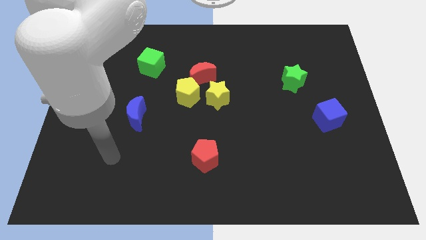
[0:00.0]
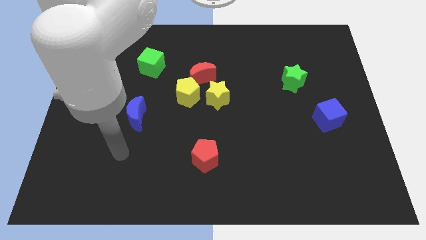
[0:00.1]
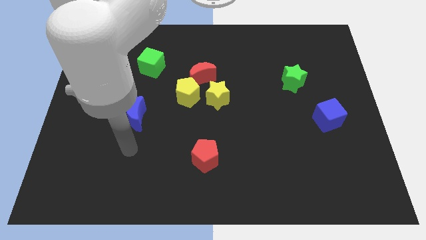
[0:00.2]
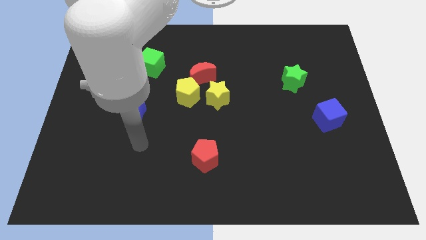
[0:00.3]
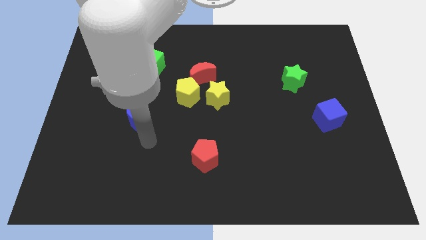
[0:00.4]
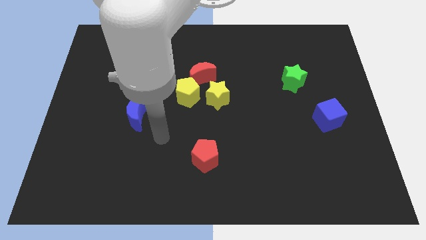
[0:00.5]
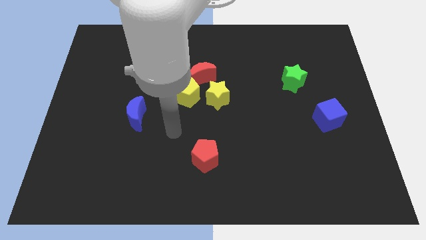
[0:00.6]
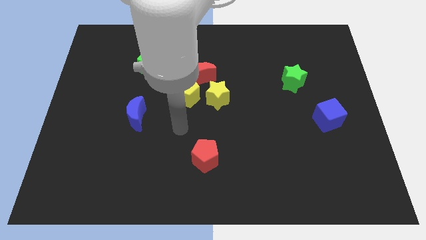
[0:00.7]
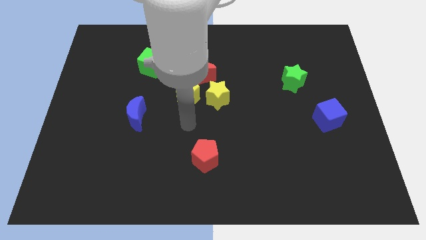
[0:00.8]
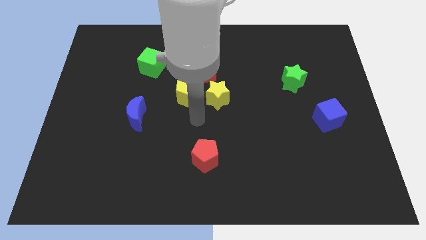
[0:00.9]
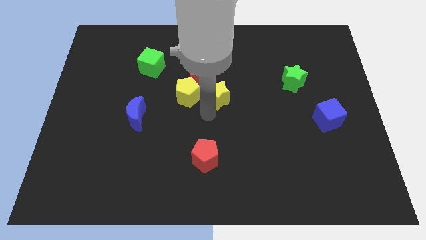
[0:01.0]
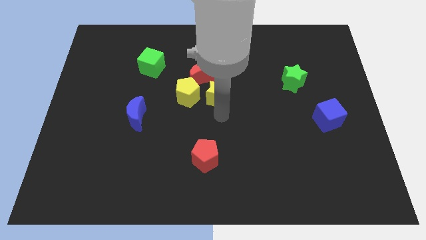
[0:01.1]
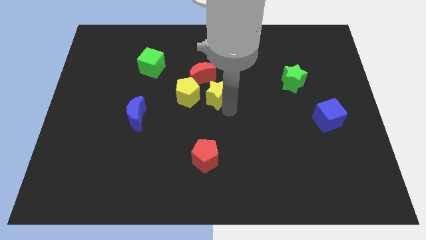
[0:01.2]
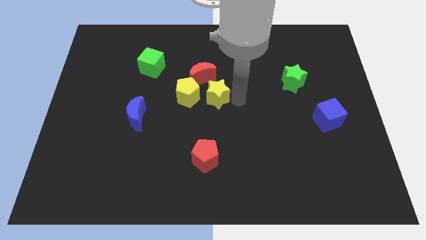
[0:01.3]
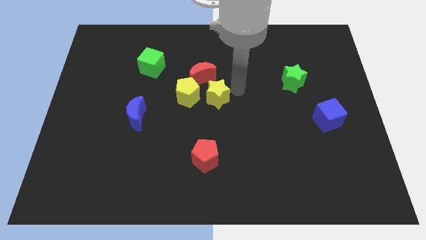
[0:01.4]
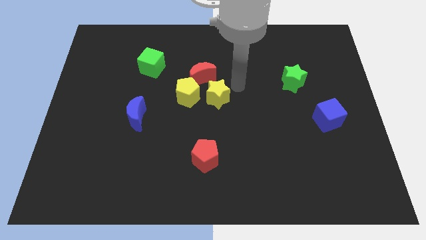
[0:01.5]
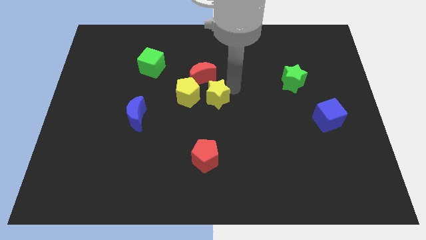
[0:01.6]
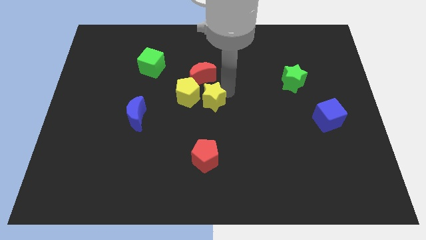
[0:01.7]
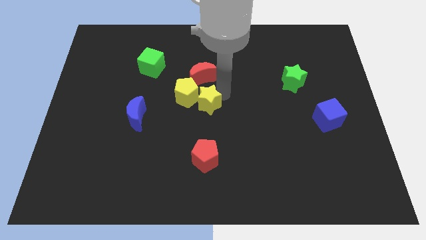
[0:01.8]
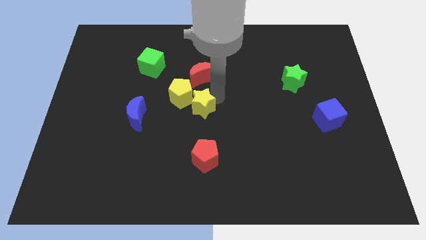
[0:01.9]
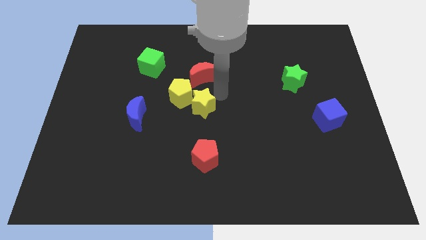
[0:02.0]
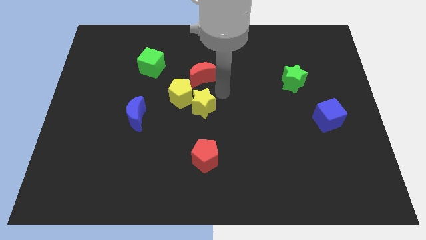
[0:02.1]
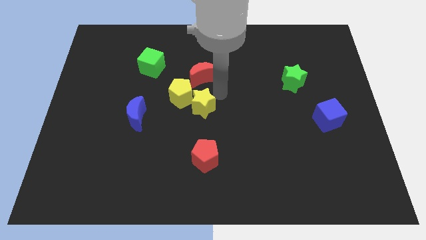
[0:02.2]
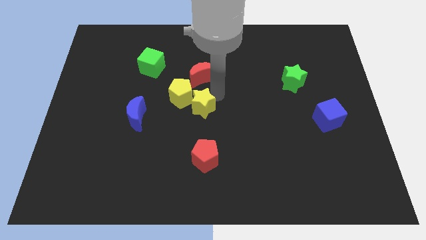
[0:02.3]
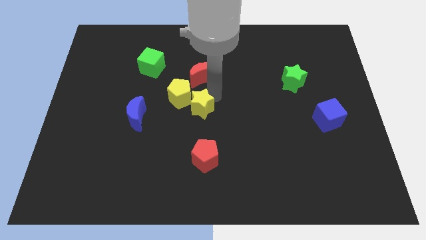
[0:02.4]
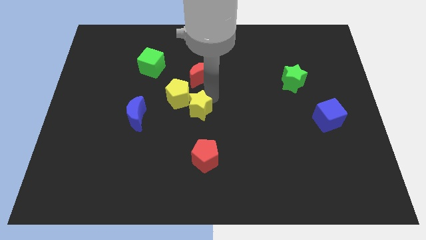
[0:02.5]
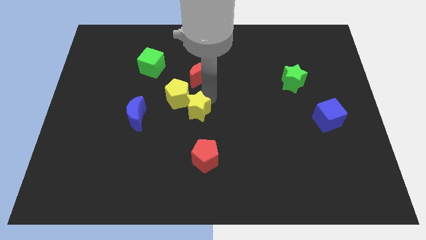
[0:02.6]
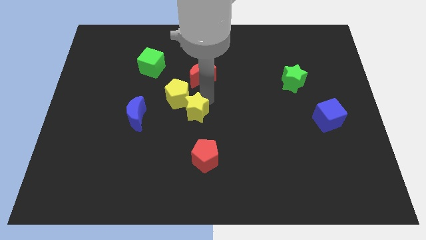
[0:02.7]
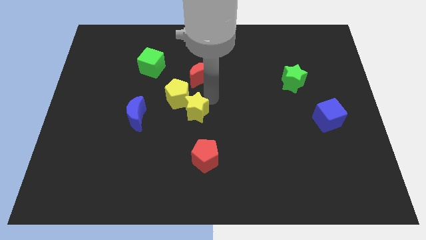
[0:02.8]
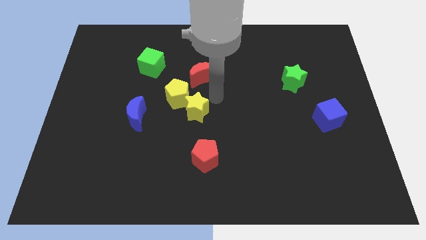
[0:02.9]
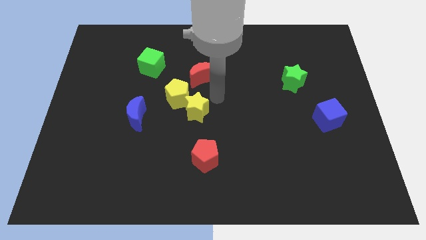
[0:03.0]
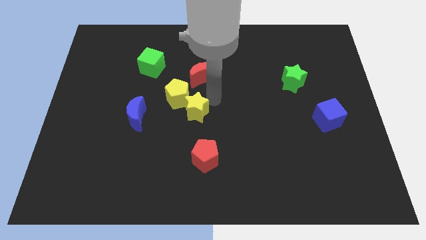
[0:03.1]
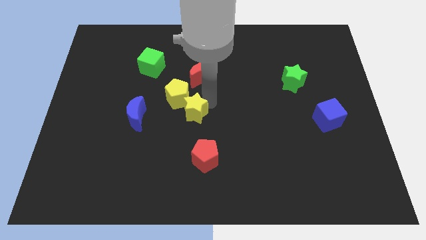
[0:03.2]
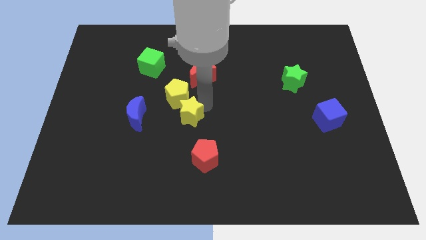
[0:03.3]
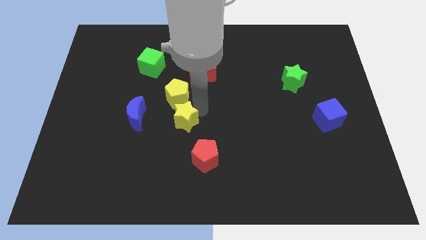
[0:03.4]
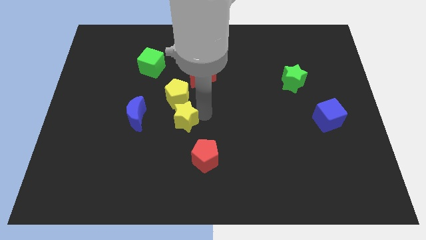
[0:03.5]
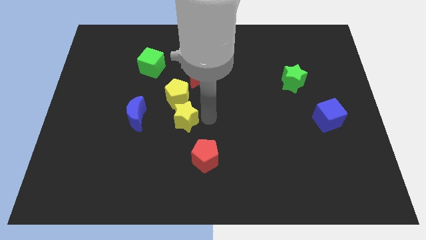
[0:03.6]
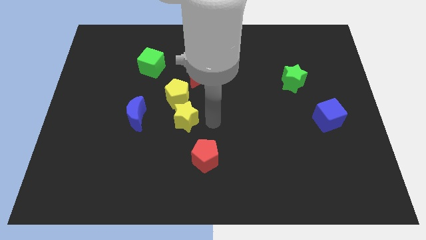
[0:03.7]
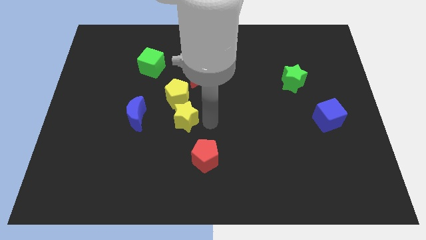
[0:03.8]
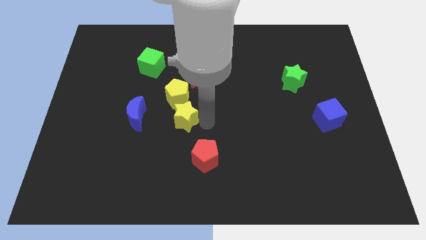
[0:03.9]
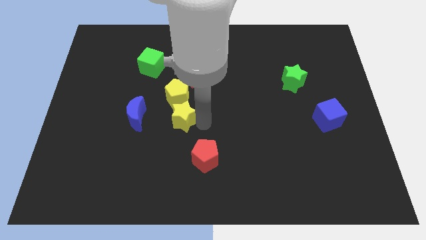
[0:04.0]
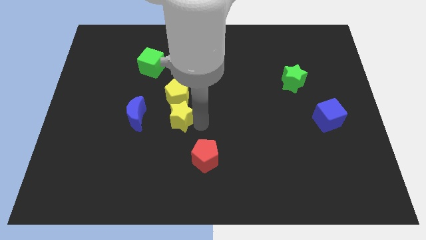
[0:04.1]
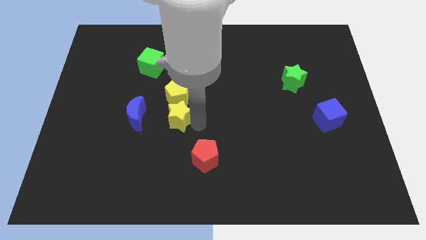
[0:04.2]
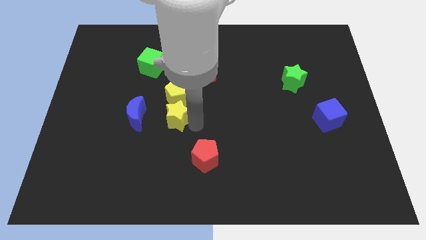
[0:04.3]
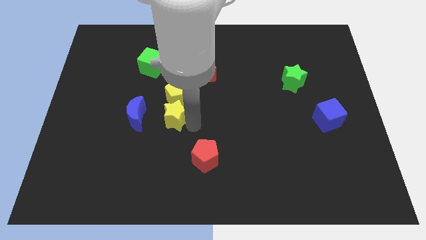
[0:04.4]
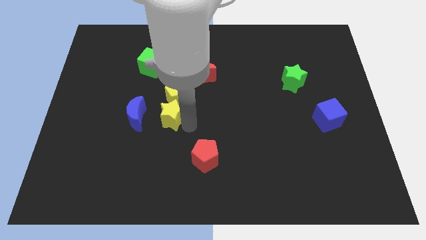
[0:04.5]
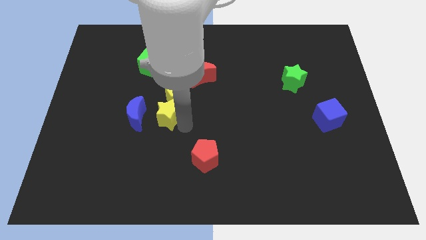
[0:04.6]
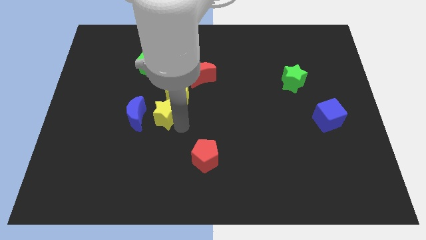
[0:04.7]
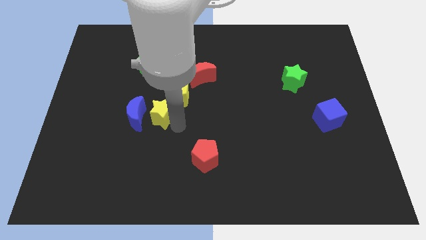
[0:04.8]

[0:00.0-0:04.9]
slide the yellow star next to the blue moon

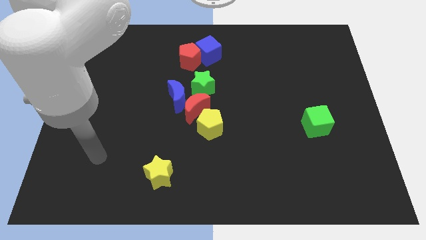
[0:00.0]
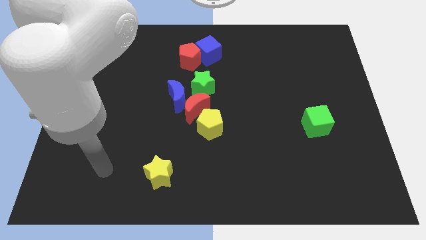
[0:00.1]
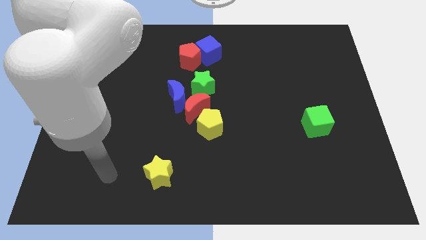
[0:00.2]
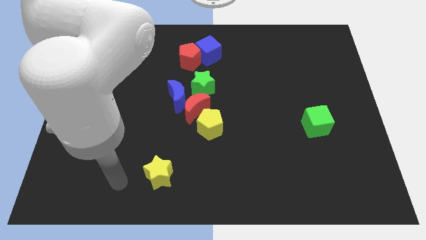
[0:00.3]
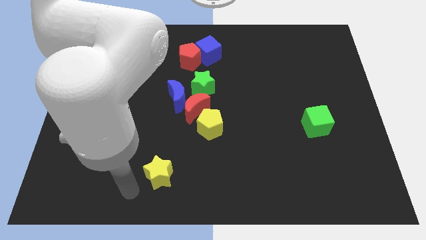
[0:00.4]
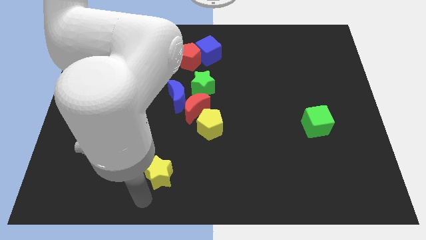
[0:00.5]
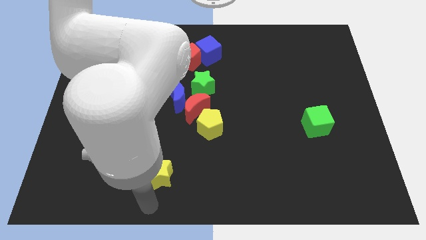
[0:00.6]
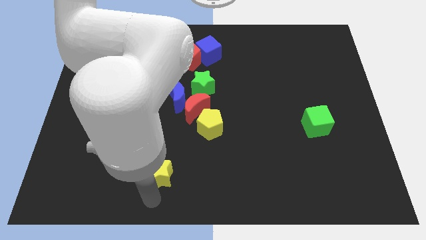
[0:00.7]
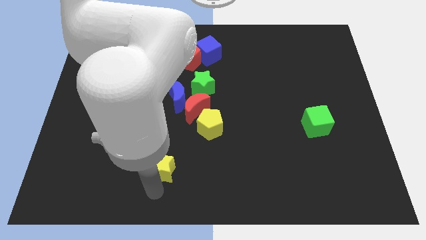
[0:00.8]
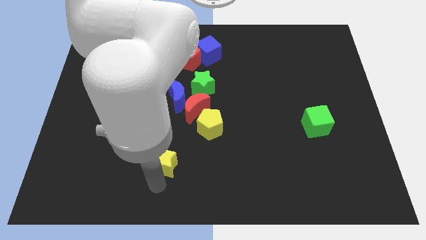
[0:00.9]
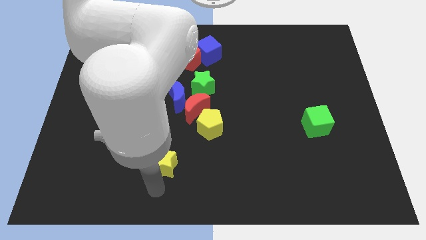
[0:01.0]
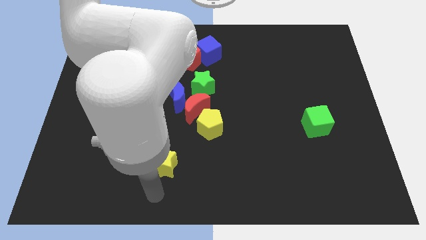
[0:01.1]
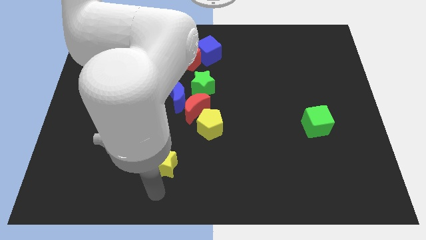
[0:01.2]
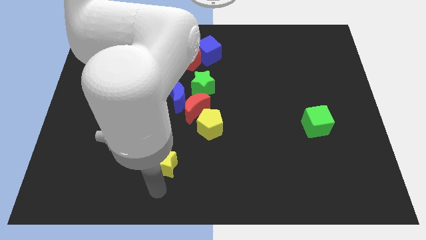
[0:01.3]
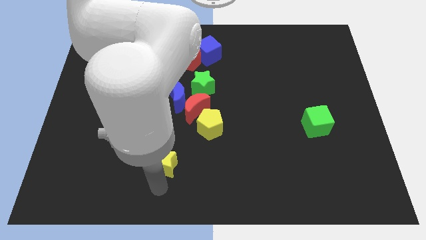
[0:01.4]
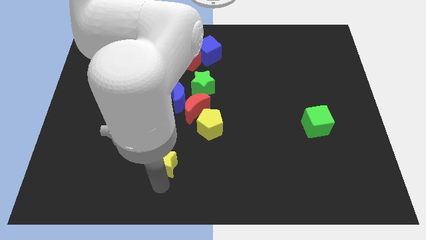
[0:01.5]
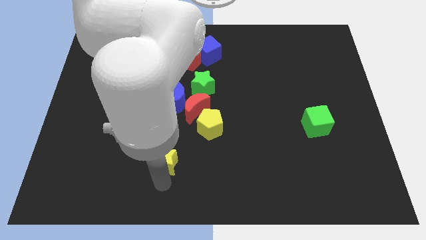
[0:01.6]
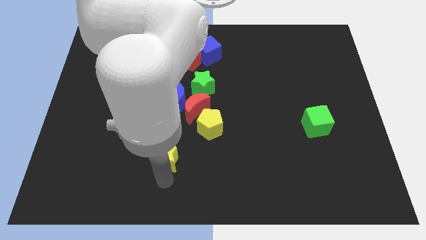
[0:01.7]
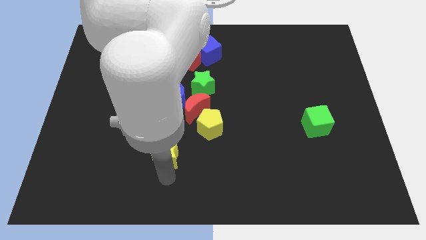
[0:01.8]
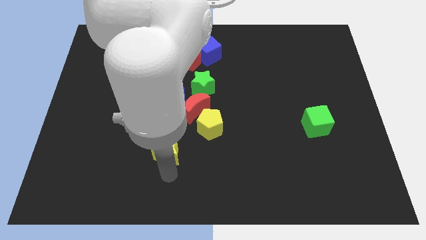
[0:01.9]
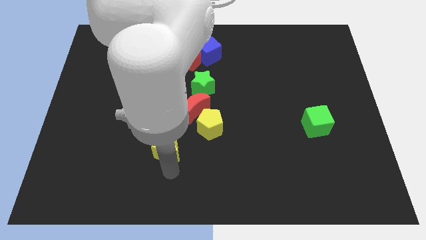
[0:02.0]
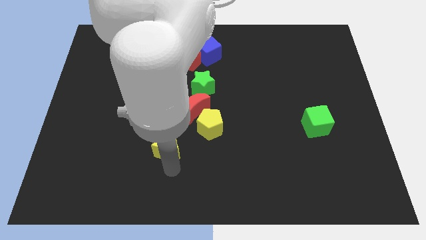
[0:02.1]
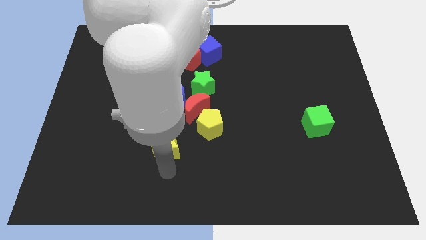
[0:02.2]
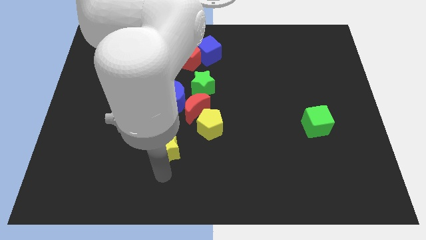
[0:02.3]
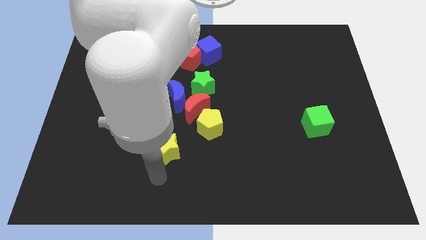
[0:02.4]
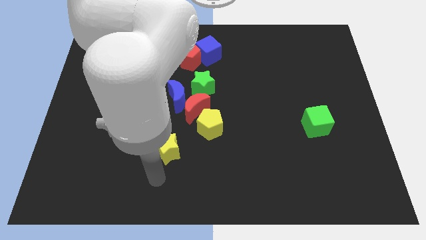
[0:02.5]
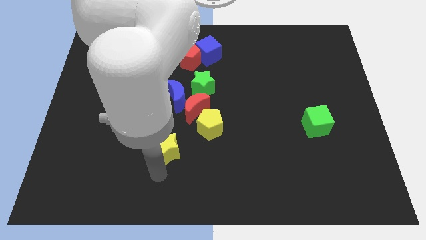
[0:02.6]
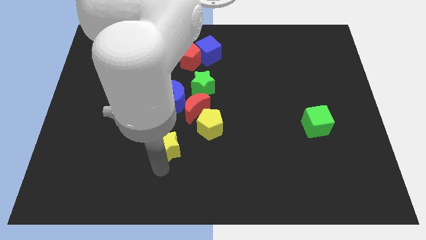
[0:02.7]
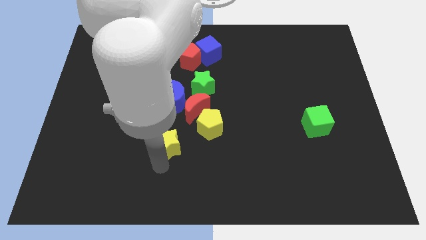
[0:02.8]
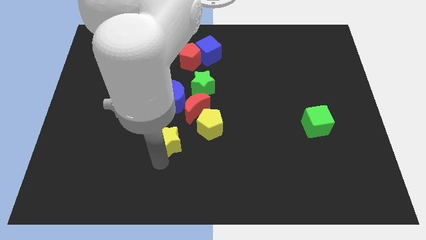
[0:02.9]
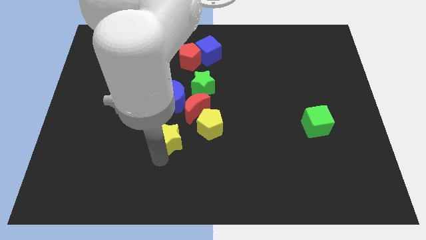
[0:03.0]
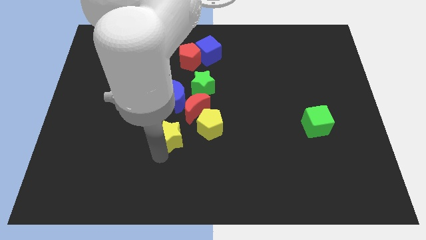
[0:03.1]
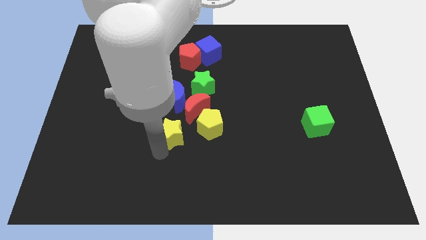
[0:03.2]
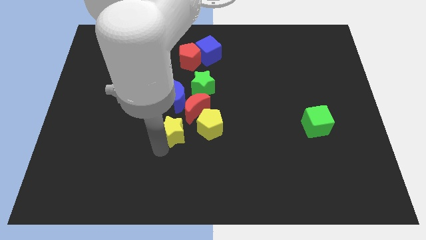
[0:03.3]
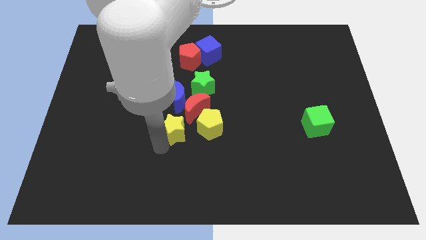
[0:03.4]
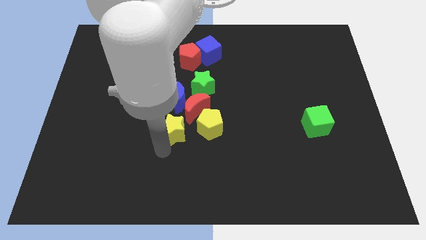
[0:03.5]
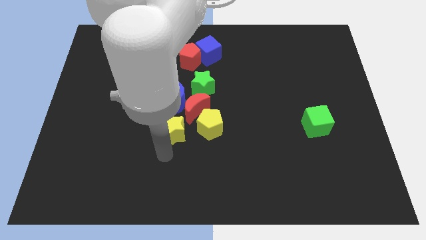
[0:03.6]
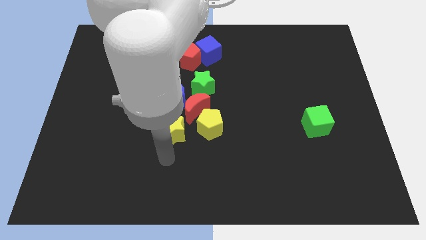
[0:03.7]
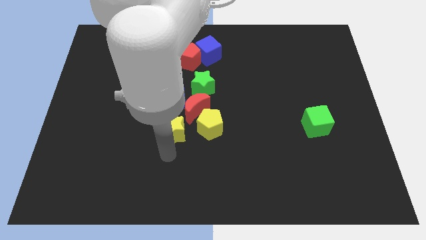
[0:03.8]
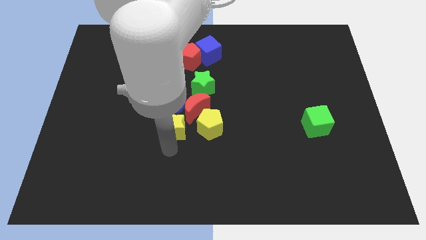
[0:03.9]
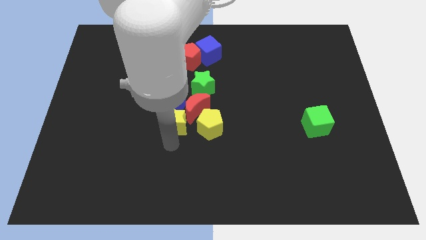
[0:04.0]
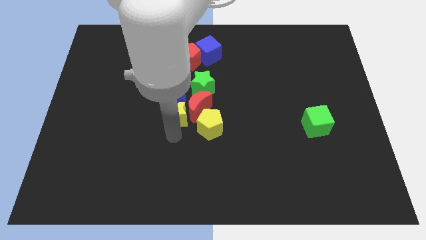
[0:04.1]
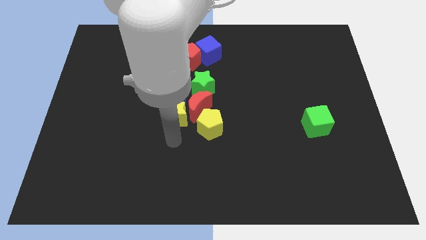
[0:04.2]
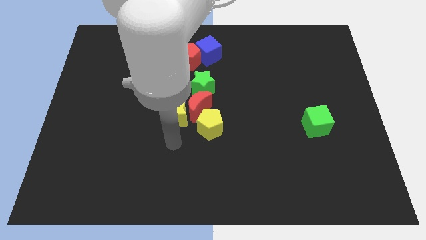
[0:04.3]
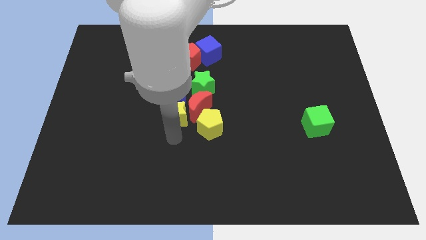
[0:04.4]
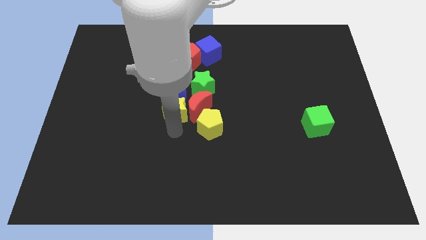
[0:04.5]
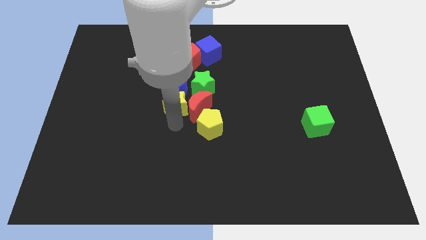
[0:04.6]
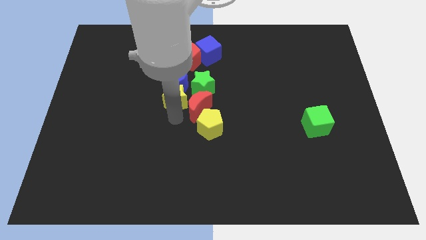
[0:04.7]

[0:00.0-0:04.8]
push the yellow star towards the blue moon
